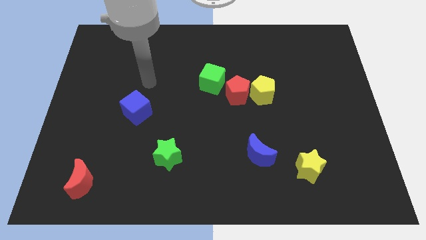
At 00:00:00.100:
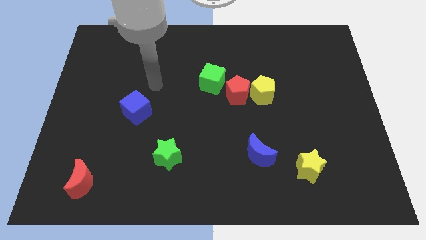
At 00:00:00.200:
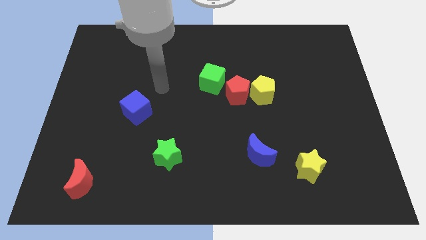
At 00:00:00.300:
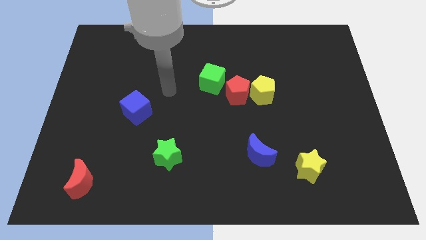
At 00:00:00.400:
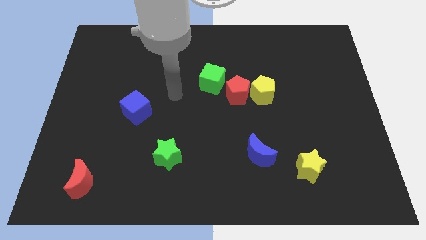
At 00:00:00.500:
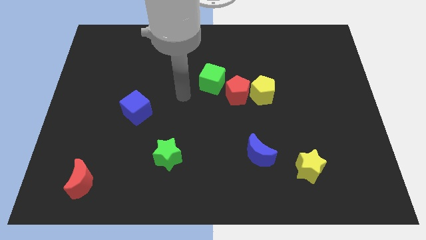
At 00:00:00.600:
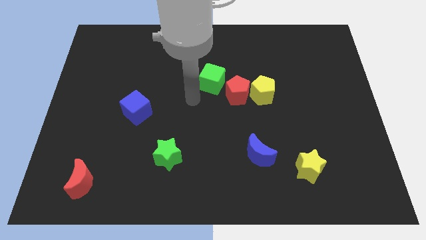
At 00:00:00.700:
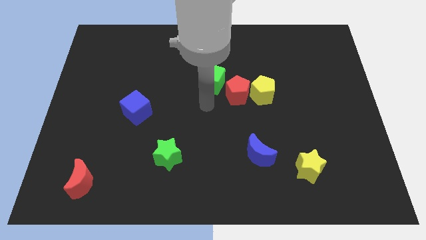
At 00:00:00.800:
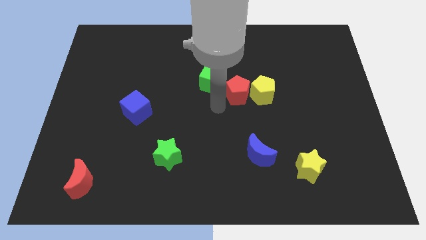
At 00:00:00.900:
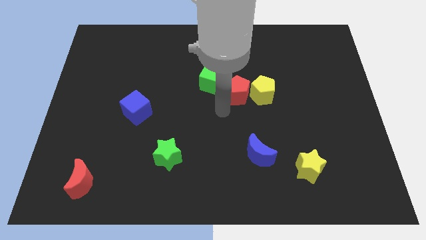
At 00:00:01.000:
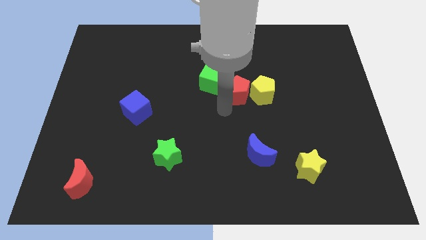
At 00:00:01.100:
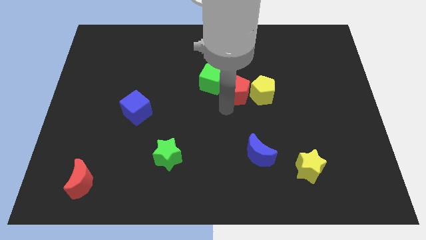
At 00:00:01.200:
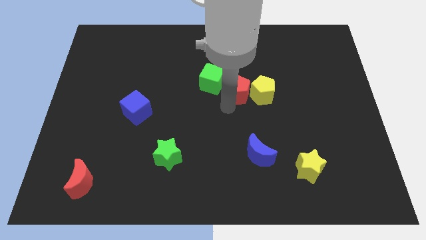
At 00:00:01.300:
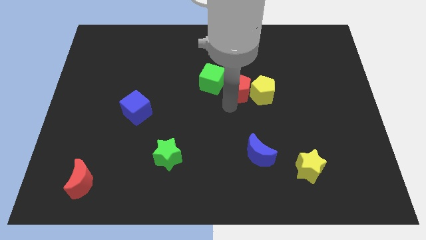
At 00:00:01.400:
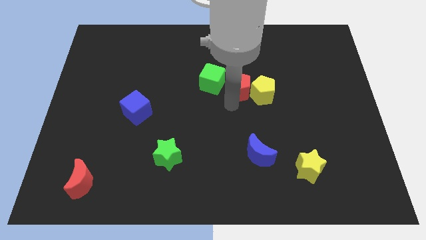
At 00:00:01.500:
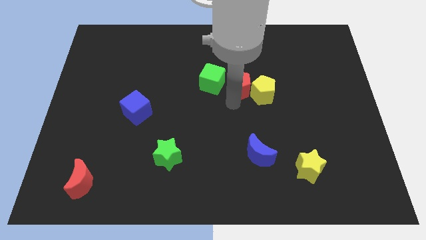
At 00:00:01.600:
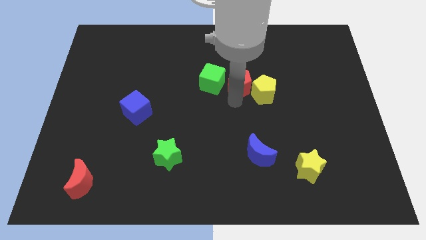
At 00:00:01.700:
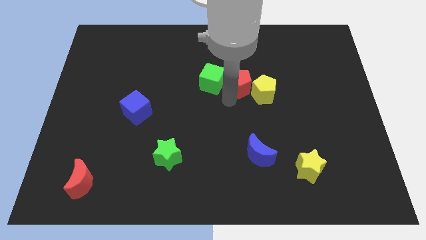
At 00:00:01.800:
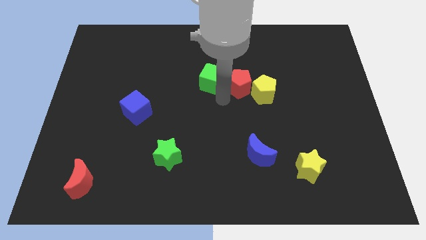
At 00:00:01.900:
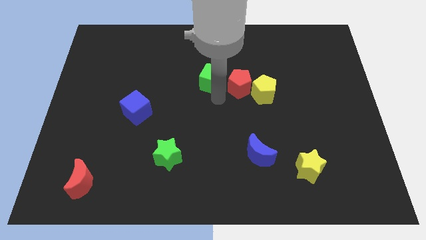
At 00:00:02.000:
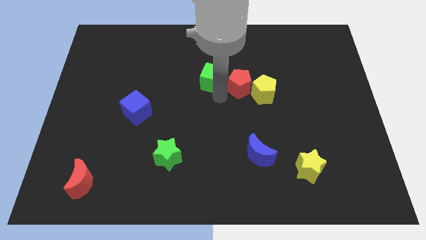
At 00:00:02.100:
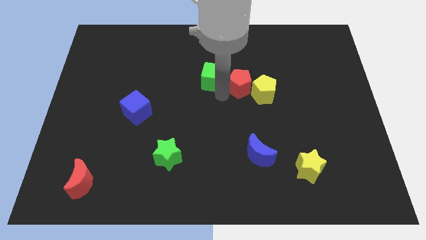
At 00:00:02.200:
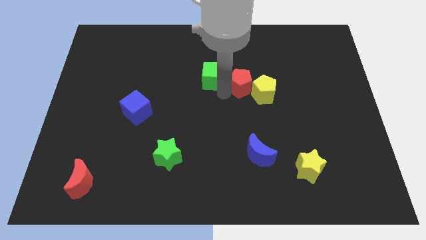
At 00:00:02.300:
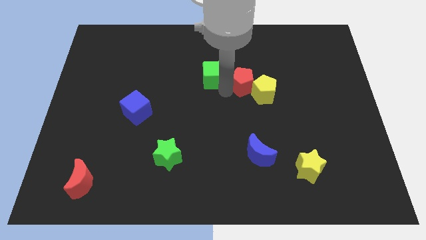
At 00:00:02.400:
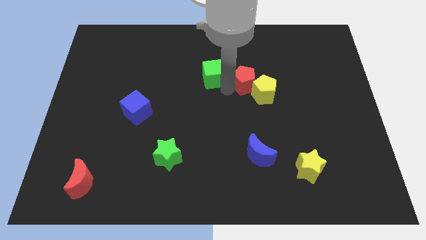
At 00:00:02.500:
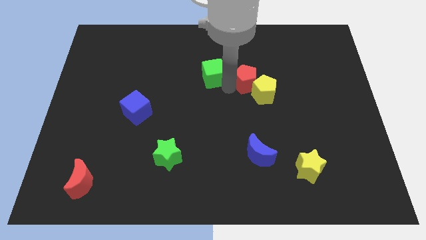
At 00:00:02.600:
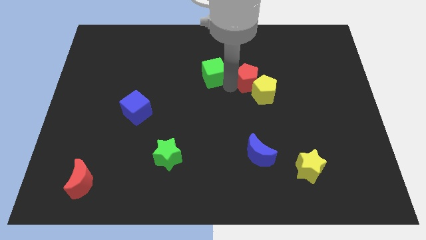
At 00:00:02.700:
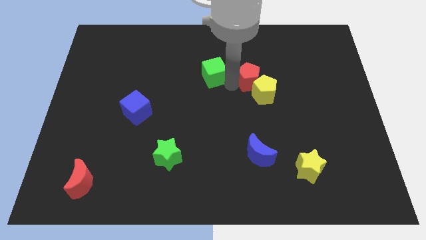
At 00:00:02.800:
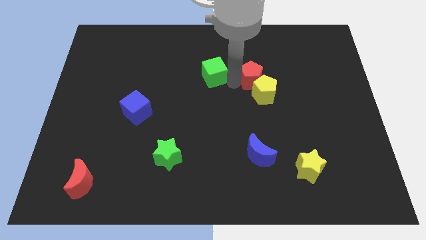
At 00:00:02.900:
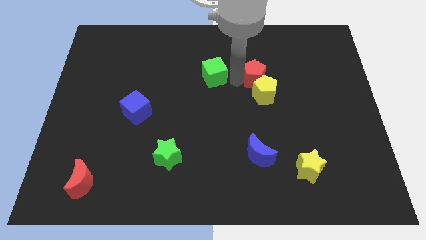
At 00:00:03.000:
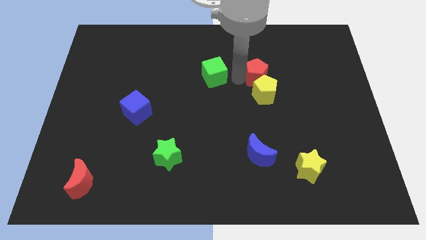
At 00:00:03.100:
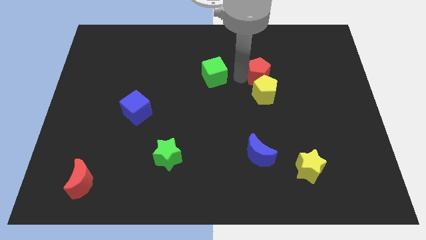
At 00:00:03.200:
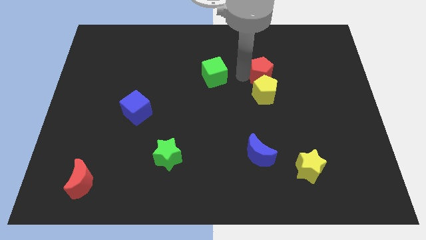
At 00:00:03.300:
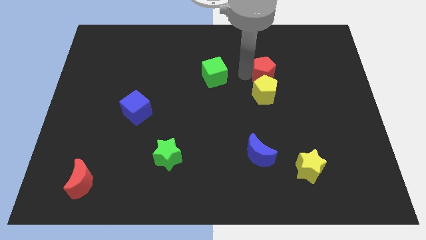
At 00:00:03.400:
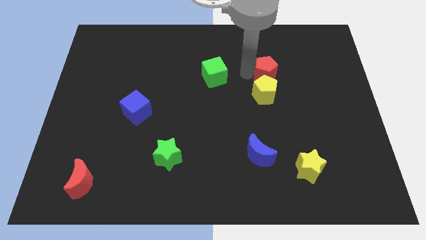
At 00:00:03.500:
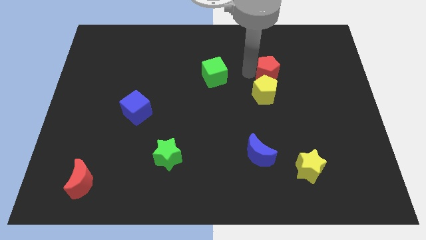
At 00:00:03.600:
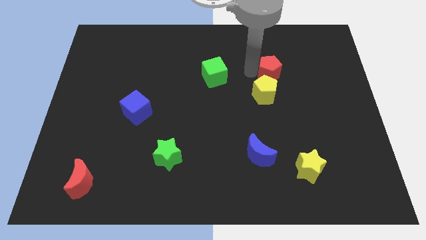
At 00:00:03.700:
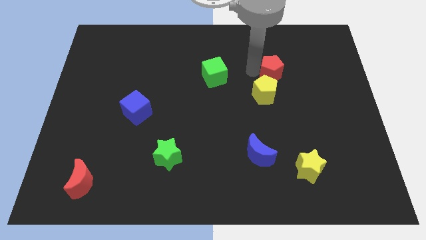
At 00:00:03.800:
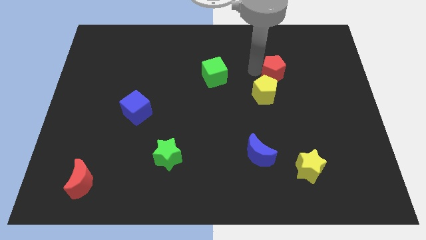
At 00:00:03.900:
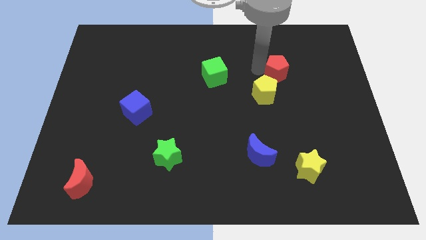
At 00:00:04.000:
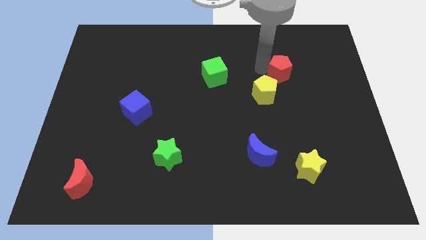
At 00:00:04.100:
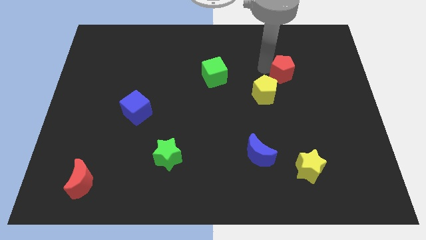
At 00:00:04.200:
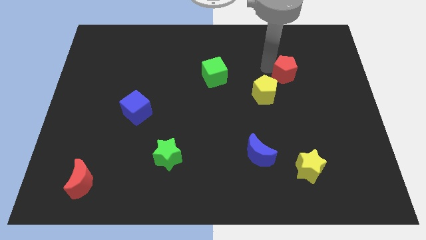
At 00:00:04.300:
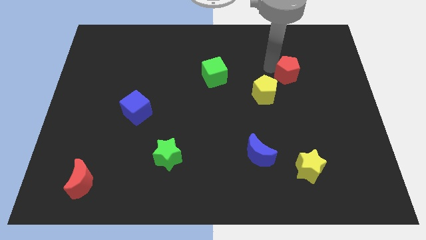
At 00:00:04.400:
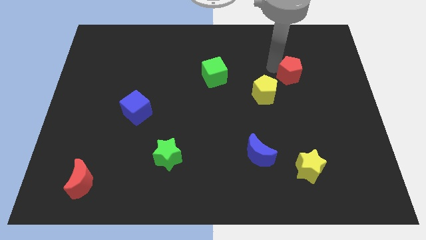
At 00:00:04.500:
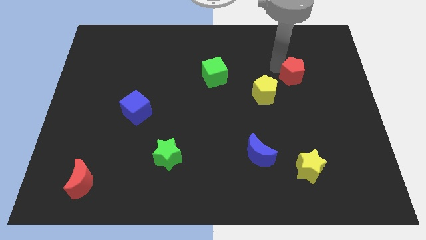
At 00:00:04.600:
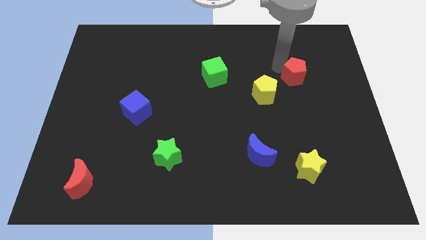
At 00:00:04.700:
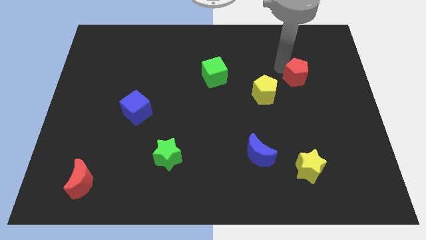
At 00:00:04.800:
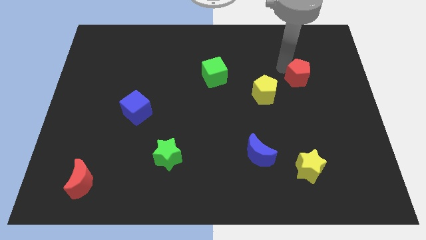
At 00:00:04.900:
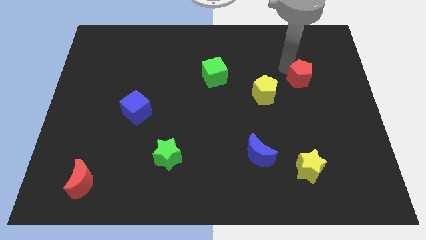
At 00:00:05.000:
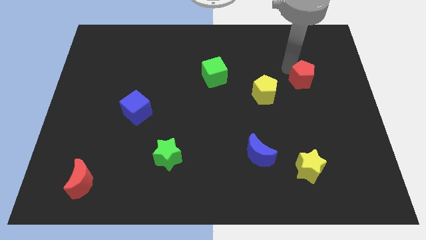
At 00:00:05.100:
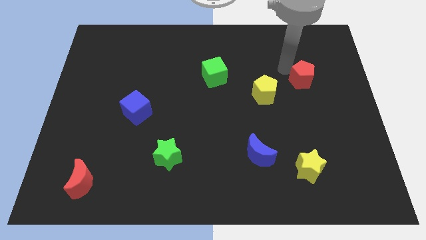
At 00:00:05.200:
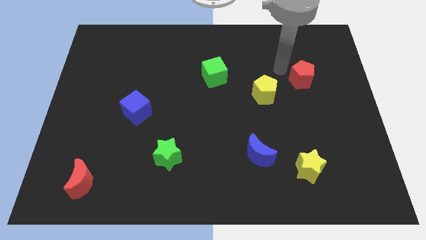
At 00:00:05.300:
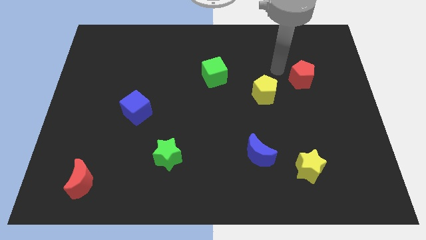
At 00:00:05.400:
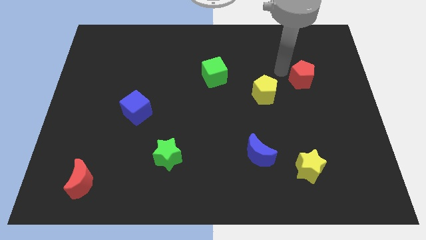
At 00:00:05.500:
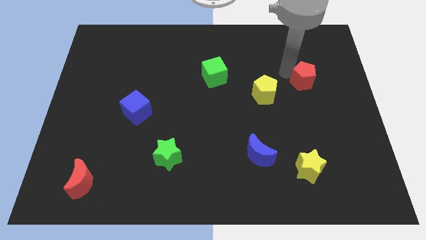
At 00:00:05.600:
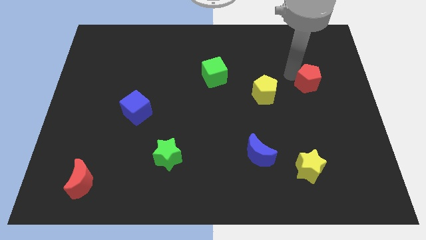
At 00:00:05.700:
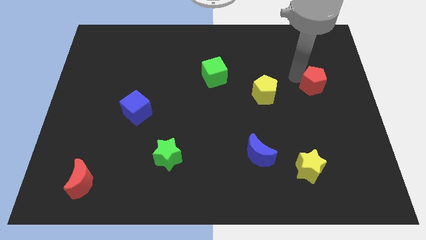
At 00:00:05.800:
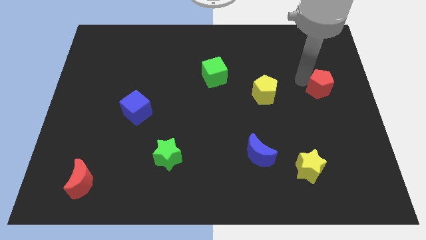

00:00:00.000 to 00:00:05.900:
push the red pentagon to the center right

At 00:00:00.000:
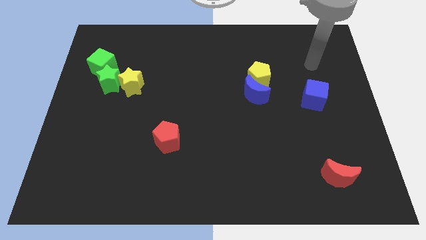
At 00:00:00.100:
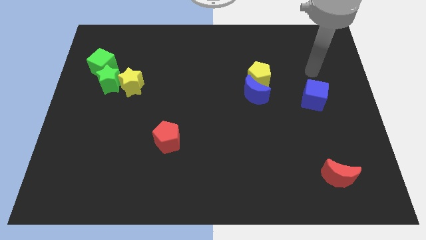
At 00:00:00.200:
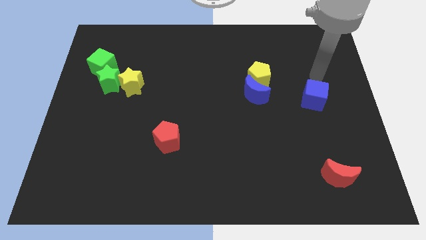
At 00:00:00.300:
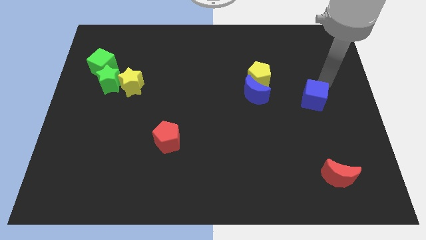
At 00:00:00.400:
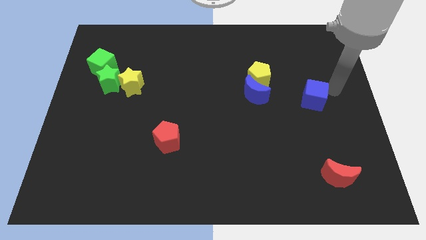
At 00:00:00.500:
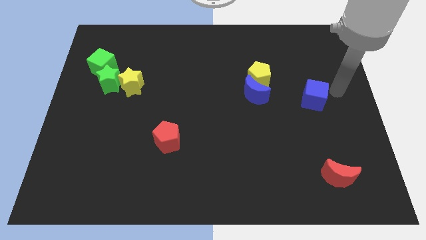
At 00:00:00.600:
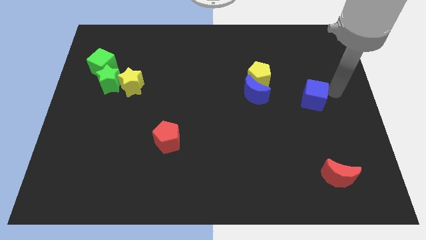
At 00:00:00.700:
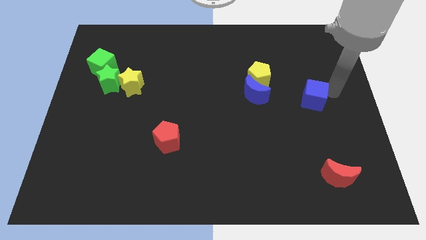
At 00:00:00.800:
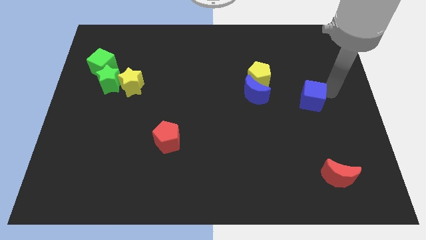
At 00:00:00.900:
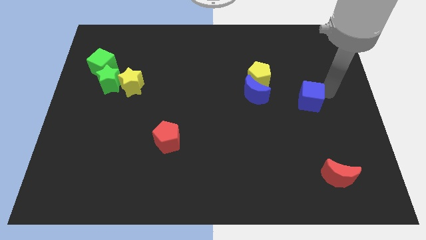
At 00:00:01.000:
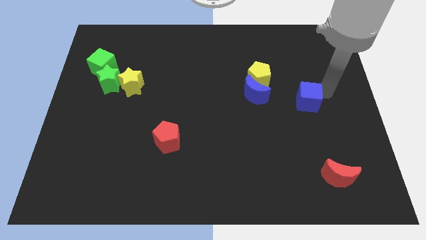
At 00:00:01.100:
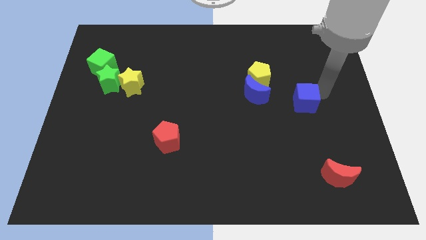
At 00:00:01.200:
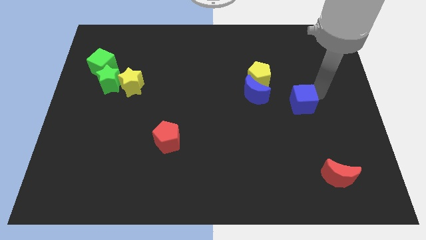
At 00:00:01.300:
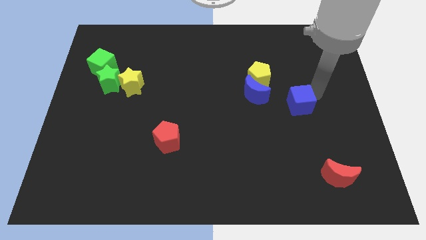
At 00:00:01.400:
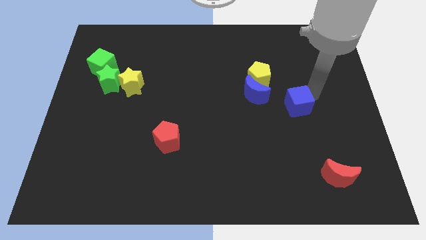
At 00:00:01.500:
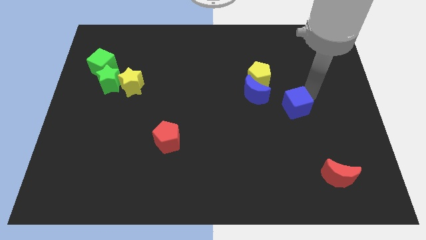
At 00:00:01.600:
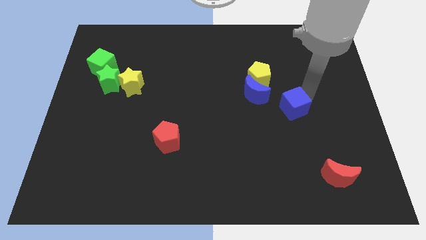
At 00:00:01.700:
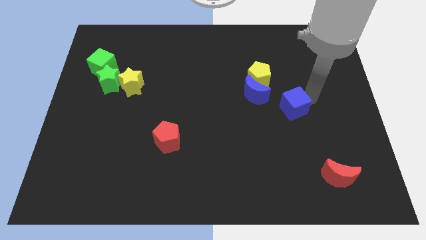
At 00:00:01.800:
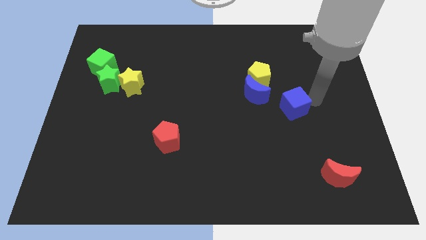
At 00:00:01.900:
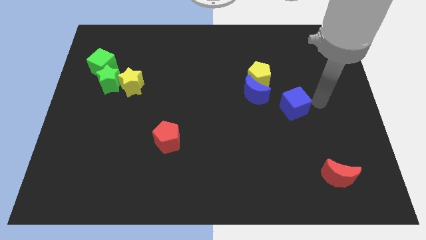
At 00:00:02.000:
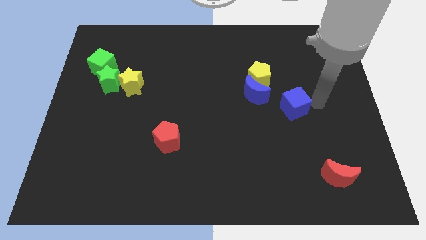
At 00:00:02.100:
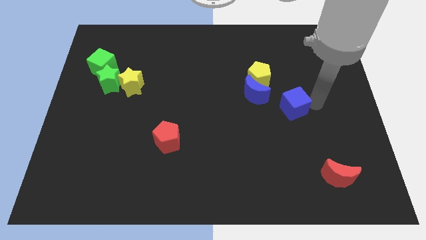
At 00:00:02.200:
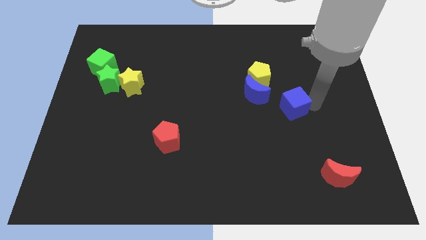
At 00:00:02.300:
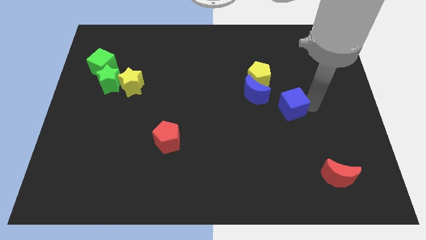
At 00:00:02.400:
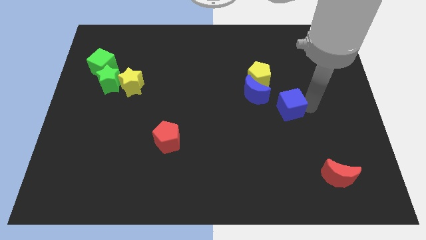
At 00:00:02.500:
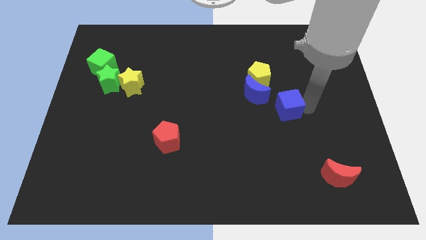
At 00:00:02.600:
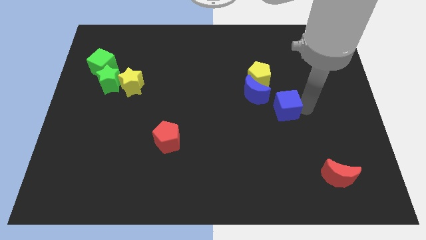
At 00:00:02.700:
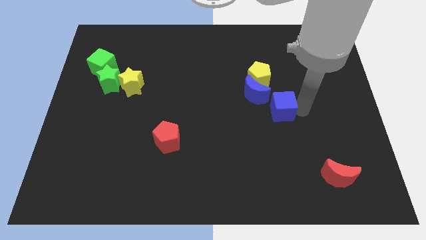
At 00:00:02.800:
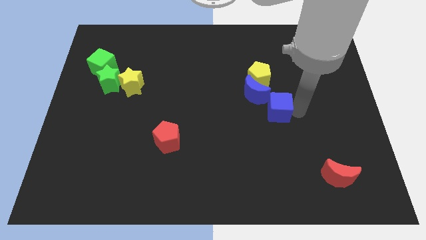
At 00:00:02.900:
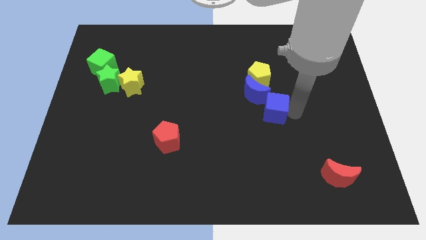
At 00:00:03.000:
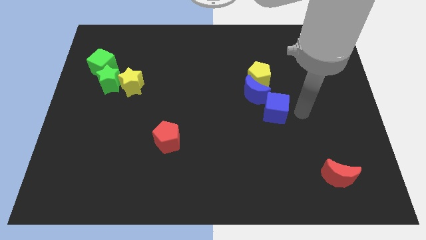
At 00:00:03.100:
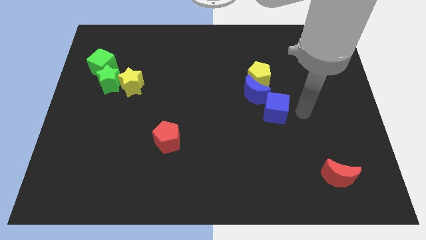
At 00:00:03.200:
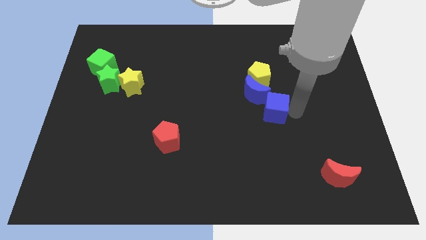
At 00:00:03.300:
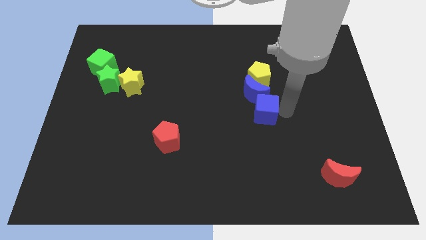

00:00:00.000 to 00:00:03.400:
put the blue cube to the center of the board
